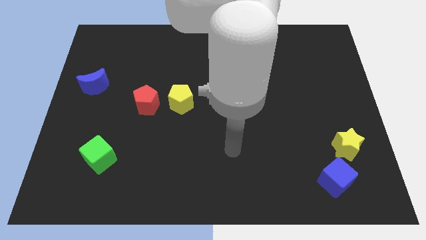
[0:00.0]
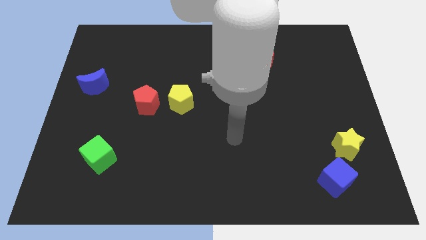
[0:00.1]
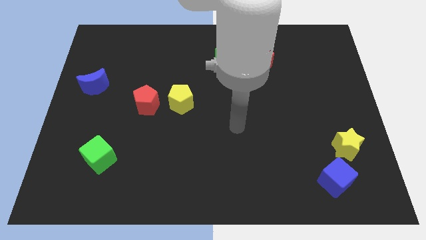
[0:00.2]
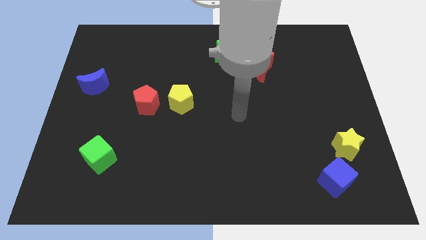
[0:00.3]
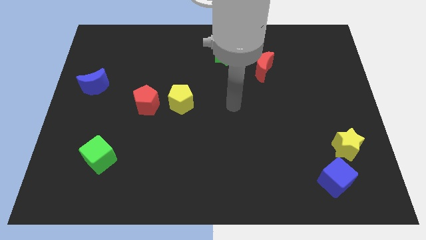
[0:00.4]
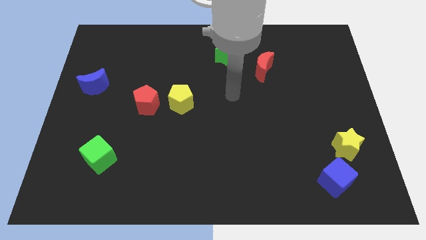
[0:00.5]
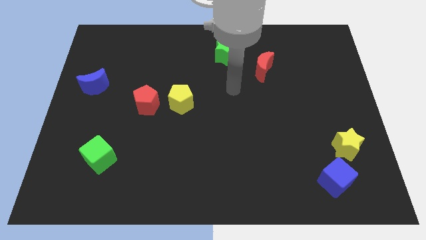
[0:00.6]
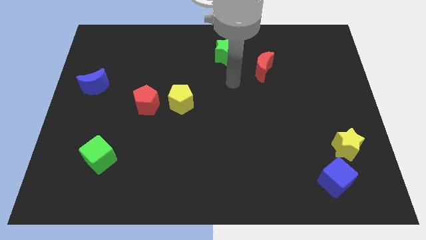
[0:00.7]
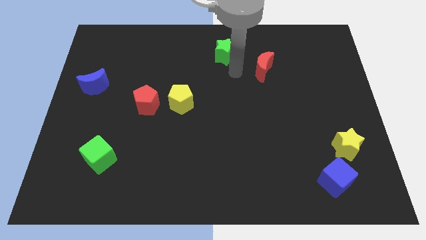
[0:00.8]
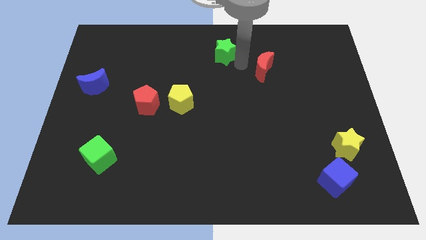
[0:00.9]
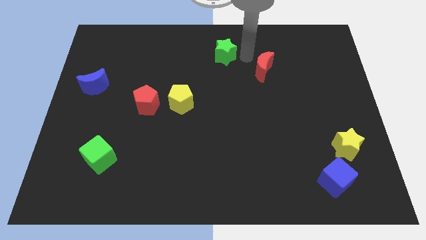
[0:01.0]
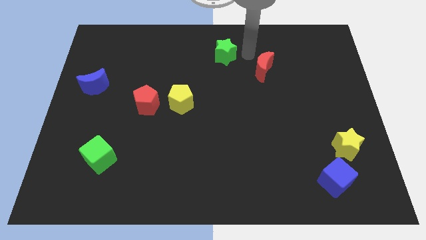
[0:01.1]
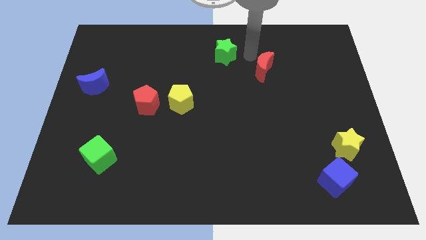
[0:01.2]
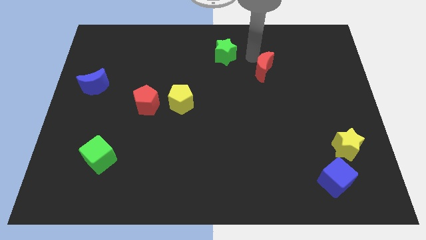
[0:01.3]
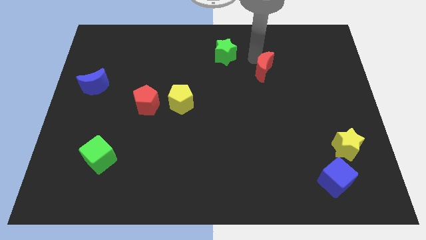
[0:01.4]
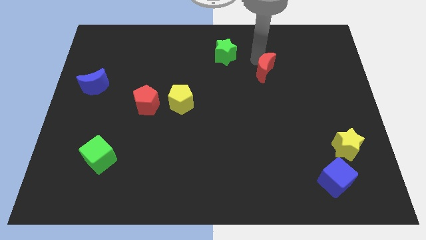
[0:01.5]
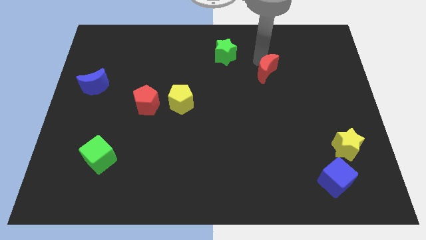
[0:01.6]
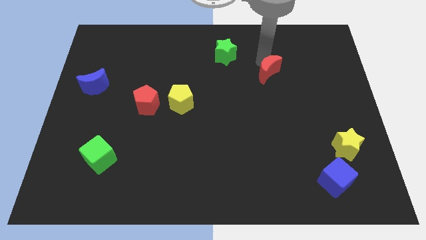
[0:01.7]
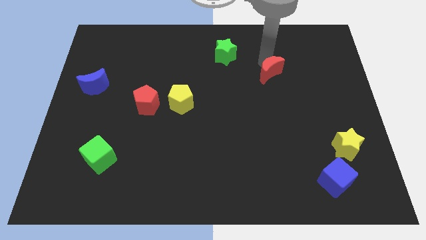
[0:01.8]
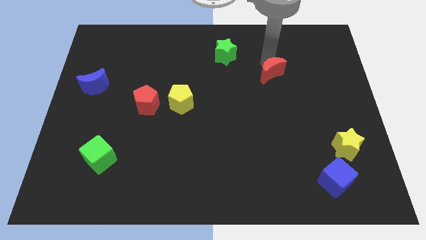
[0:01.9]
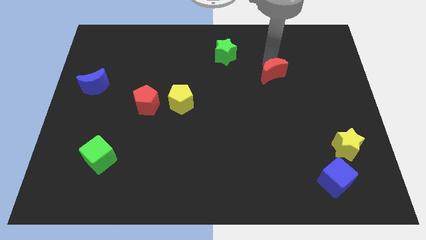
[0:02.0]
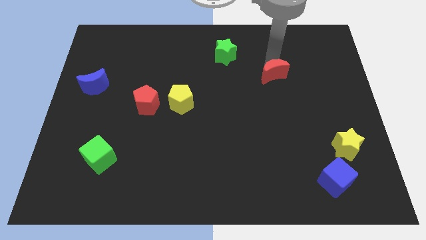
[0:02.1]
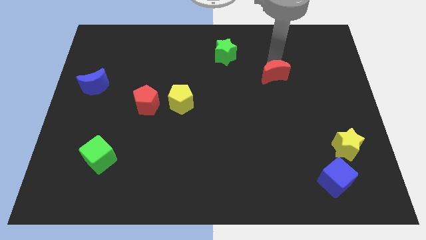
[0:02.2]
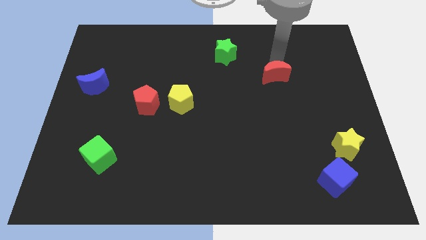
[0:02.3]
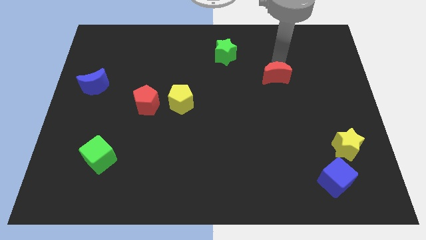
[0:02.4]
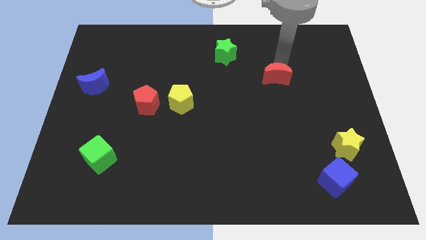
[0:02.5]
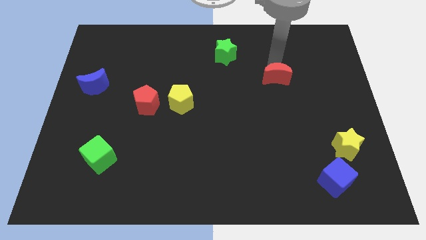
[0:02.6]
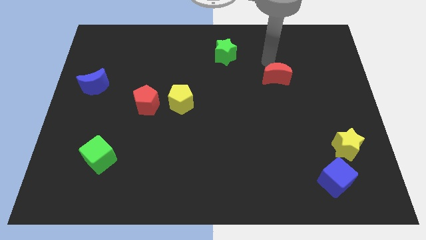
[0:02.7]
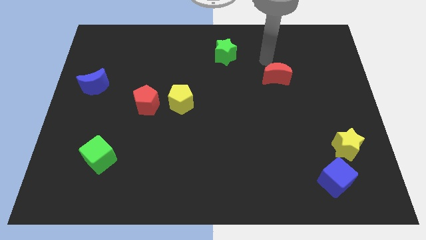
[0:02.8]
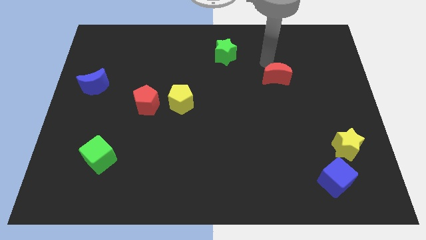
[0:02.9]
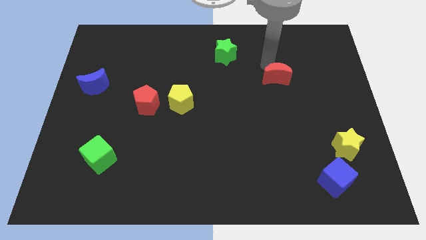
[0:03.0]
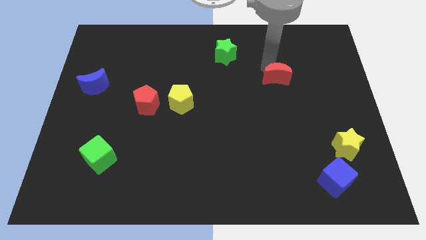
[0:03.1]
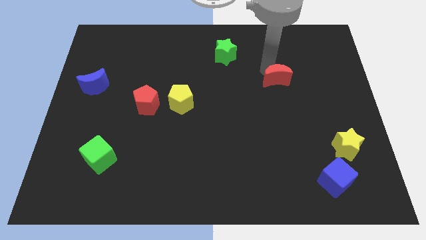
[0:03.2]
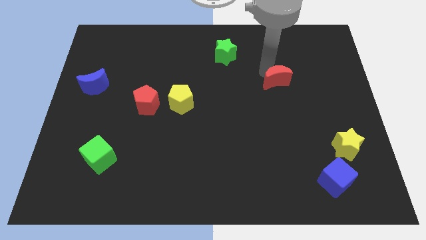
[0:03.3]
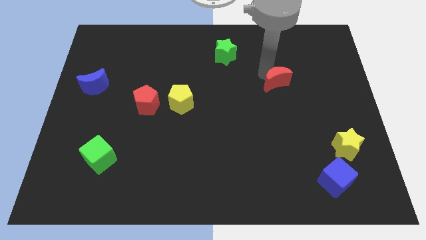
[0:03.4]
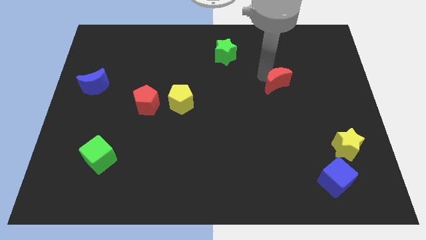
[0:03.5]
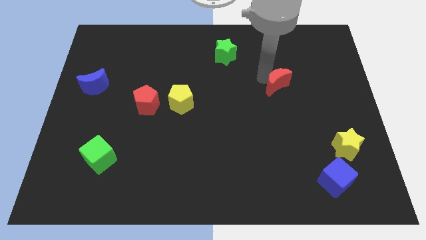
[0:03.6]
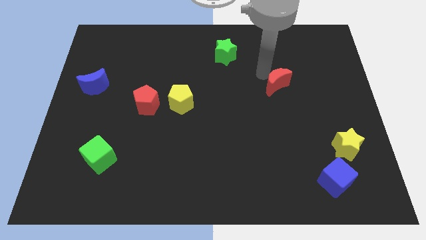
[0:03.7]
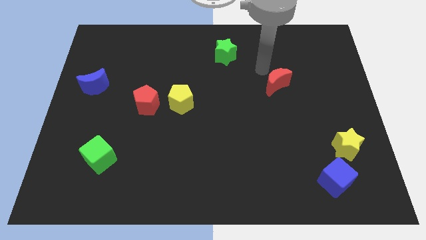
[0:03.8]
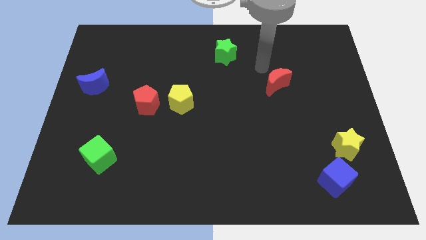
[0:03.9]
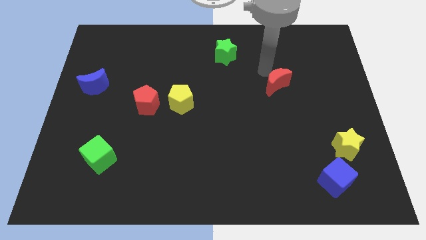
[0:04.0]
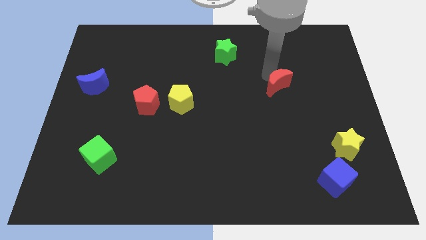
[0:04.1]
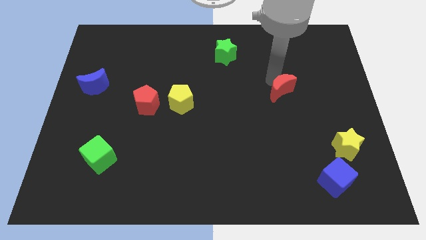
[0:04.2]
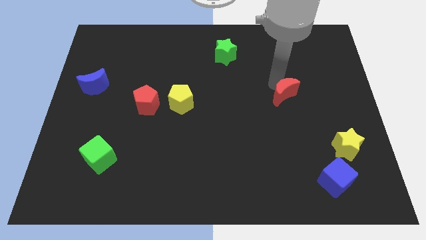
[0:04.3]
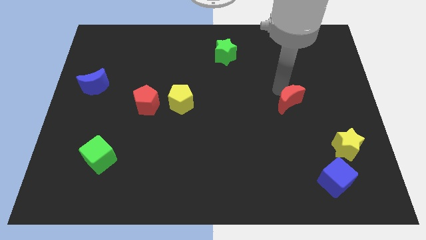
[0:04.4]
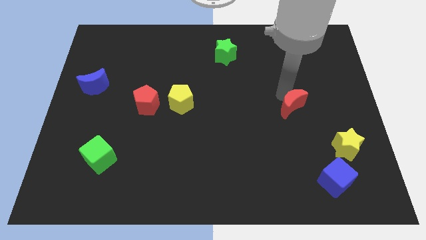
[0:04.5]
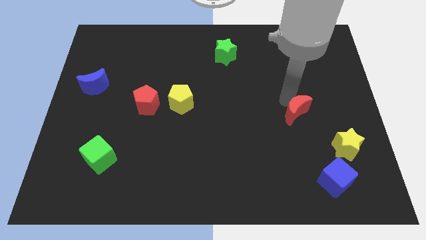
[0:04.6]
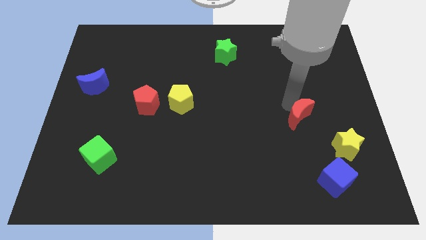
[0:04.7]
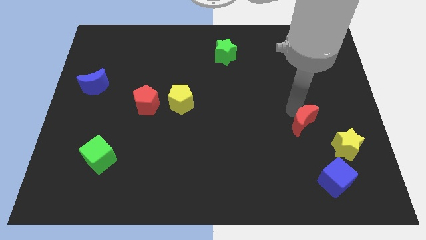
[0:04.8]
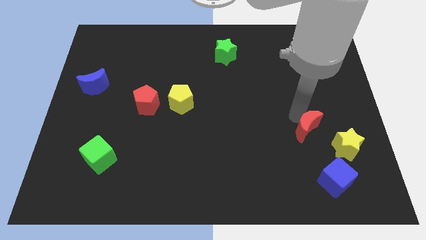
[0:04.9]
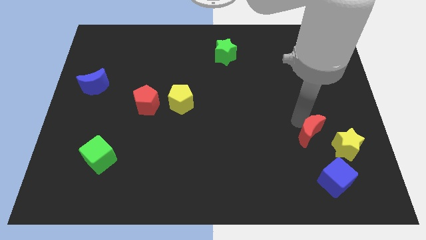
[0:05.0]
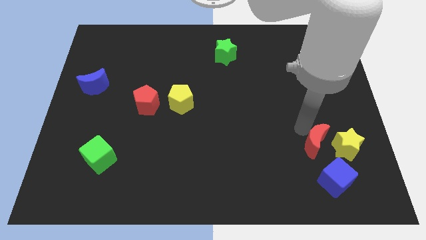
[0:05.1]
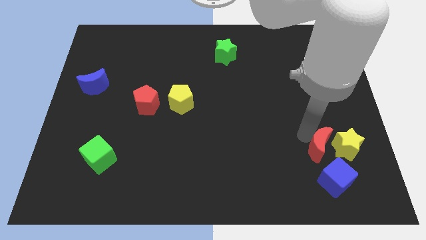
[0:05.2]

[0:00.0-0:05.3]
put the red moon to the yellow star

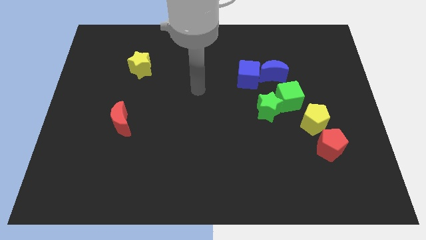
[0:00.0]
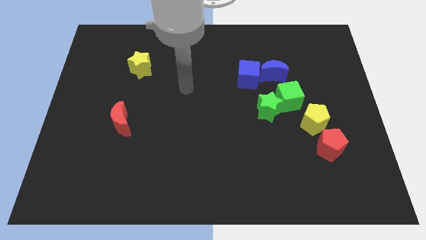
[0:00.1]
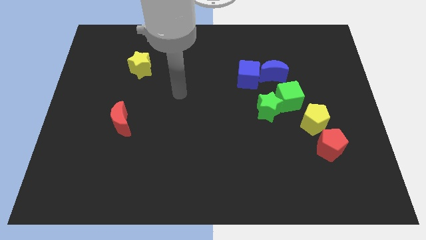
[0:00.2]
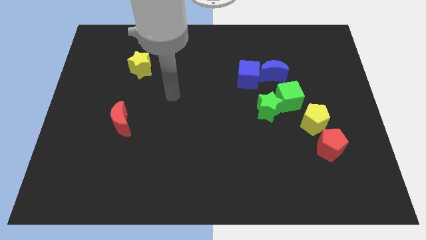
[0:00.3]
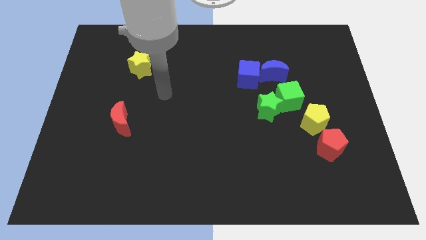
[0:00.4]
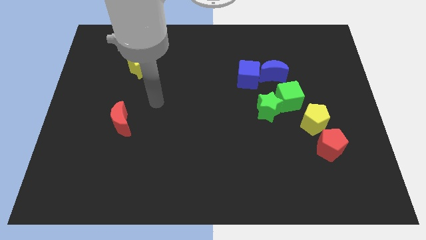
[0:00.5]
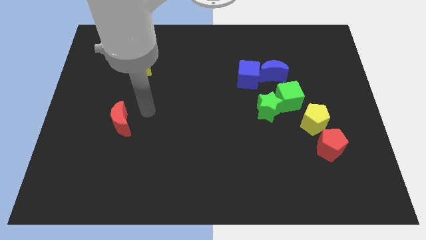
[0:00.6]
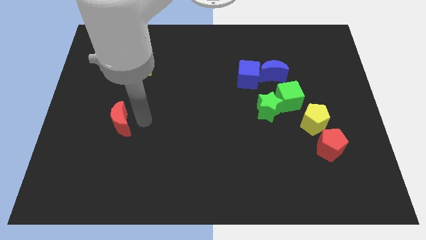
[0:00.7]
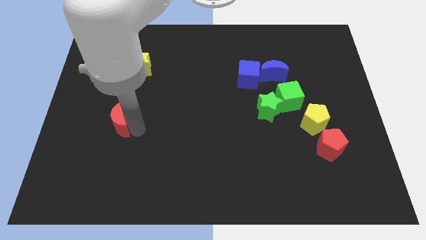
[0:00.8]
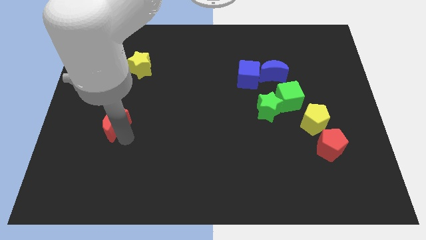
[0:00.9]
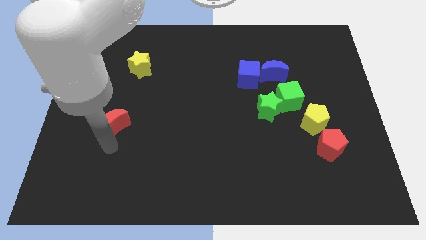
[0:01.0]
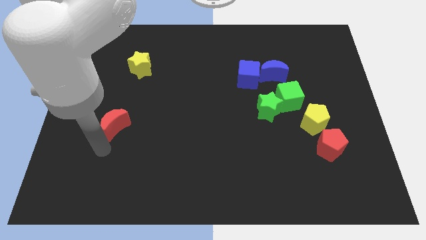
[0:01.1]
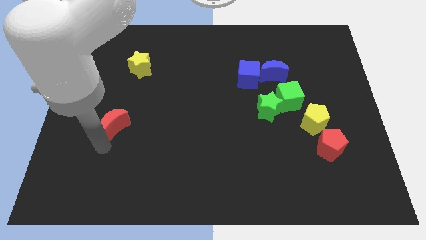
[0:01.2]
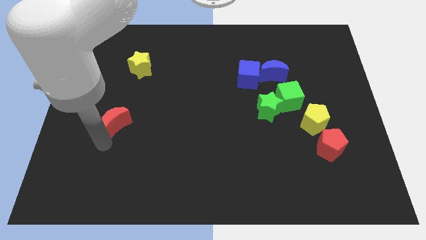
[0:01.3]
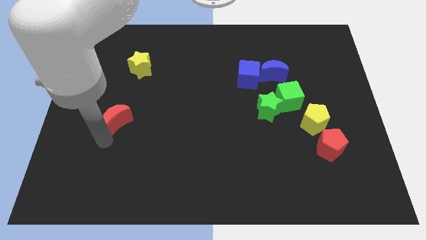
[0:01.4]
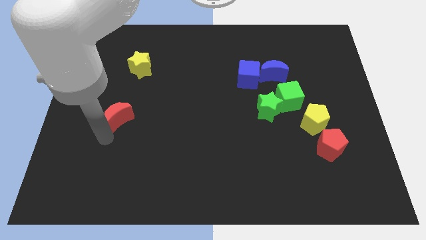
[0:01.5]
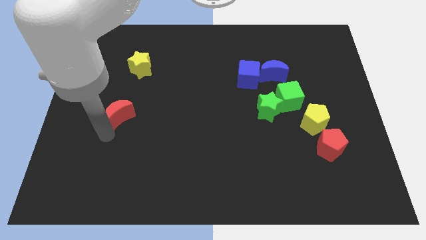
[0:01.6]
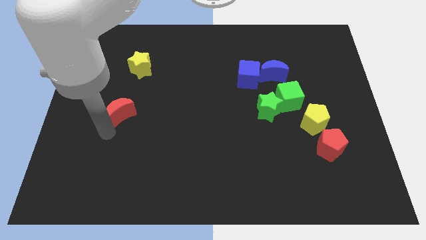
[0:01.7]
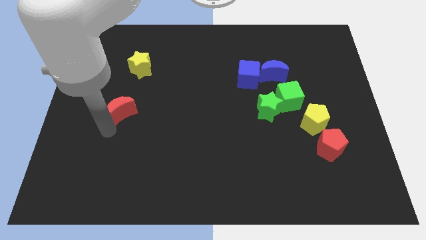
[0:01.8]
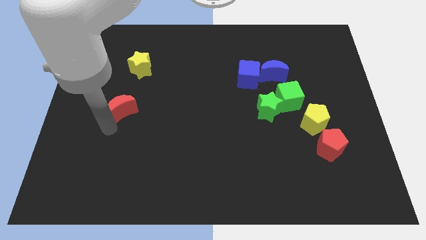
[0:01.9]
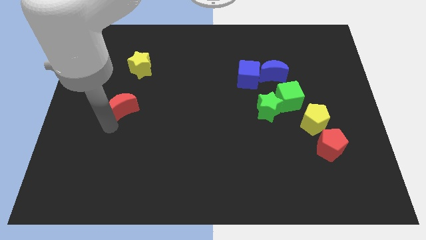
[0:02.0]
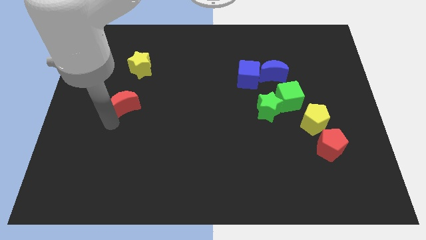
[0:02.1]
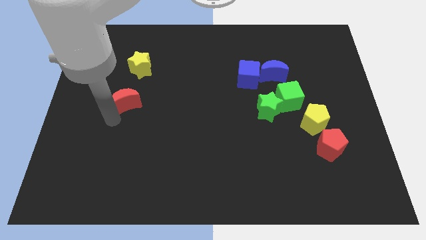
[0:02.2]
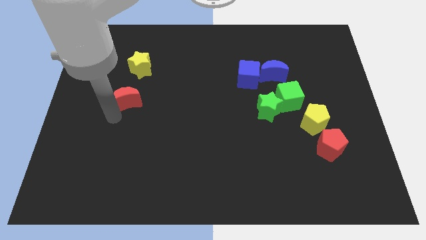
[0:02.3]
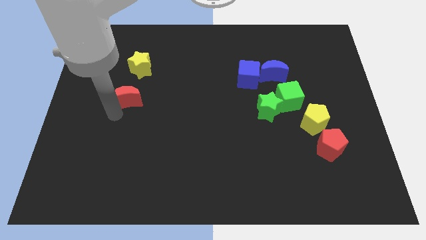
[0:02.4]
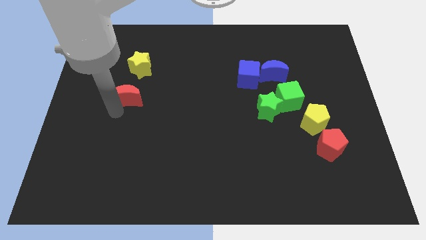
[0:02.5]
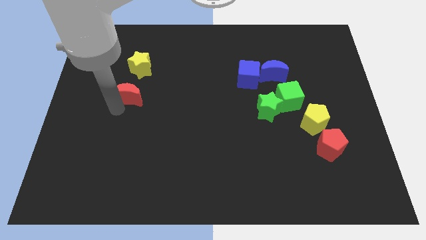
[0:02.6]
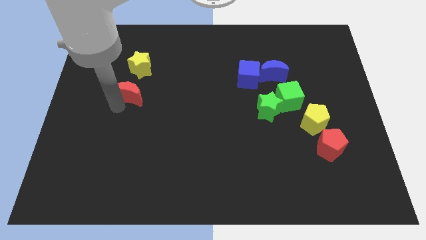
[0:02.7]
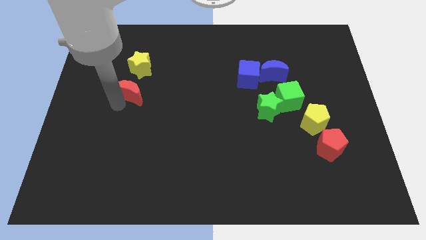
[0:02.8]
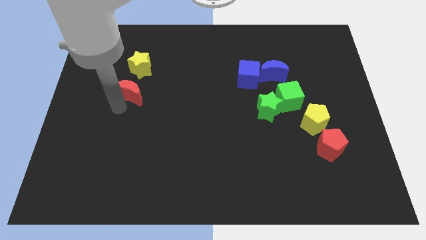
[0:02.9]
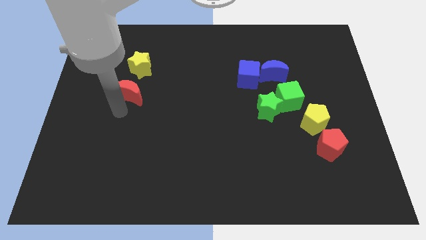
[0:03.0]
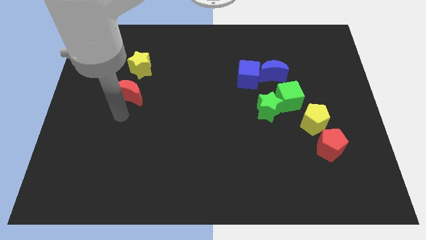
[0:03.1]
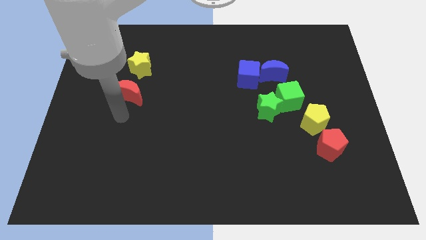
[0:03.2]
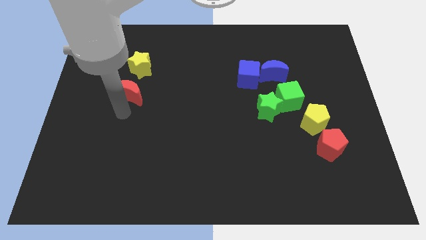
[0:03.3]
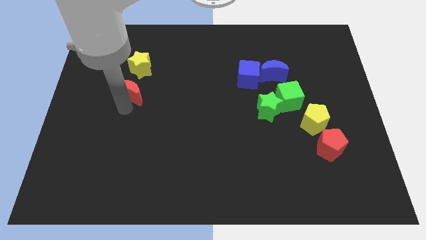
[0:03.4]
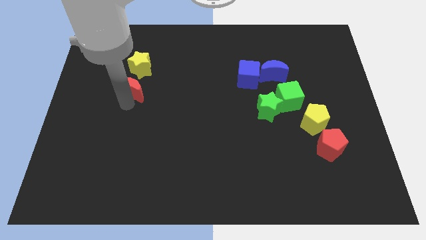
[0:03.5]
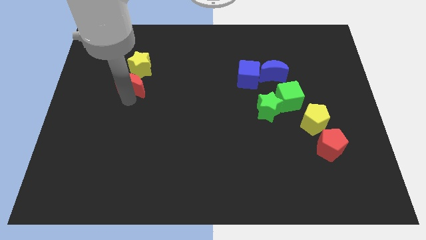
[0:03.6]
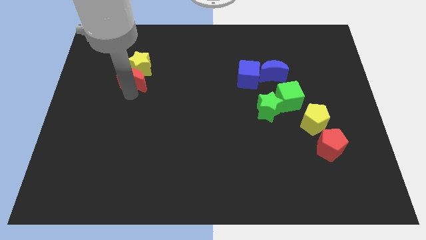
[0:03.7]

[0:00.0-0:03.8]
move the red moon close to the yellow star
